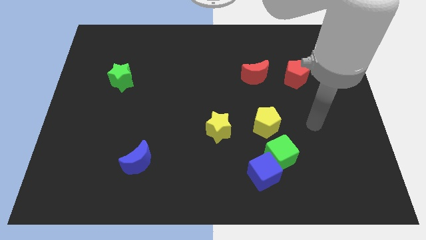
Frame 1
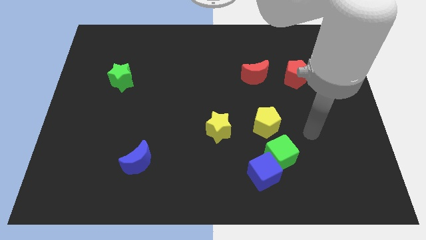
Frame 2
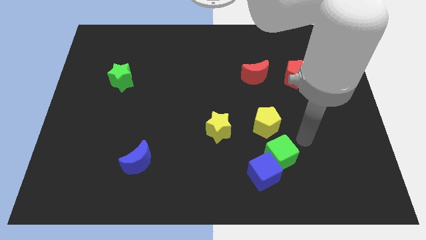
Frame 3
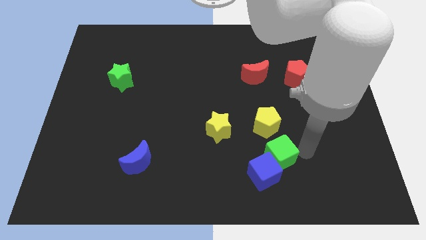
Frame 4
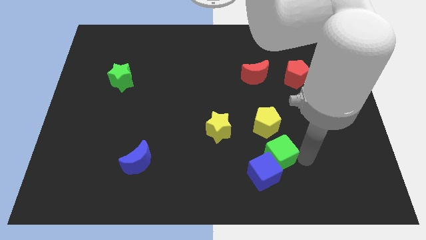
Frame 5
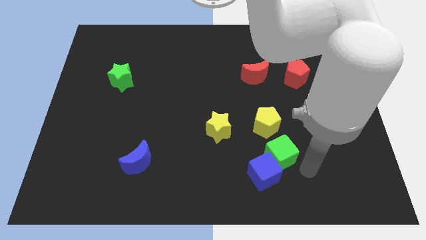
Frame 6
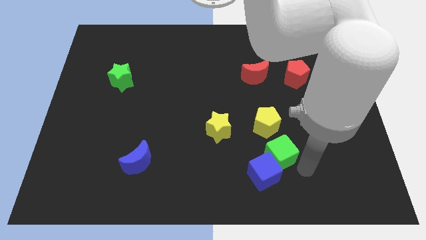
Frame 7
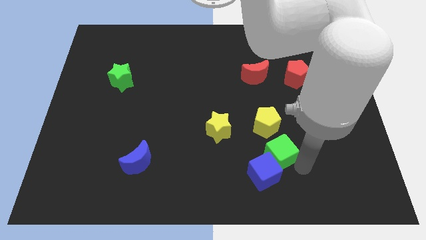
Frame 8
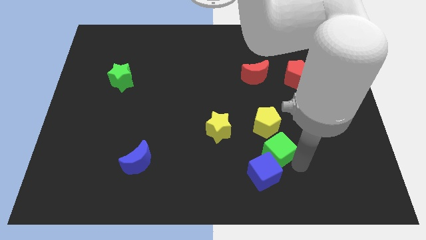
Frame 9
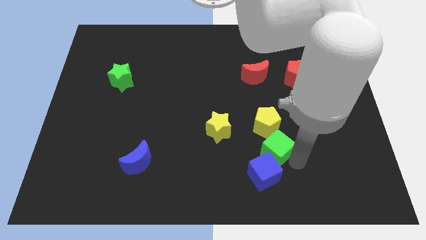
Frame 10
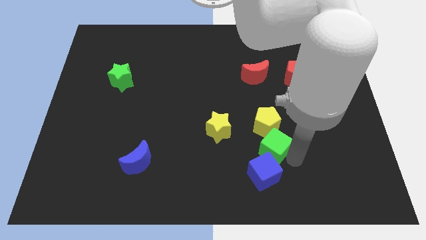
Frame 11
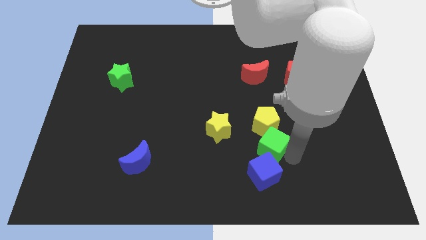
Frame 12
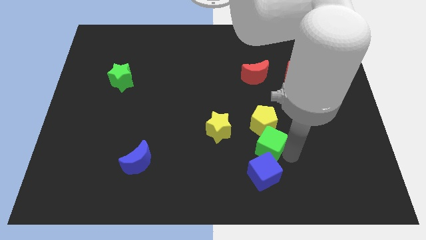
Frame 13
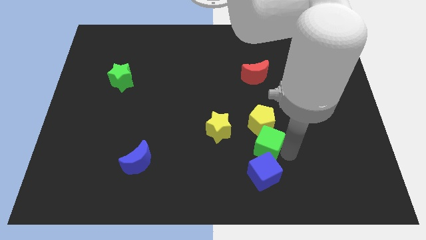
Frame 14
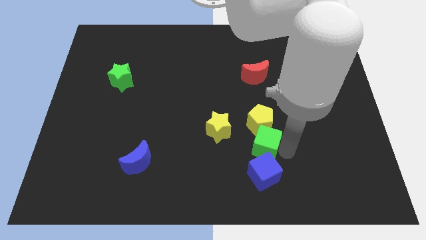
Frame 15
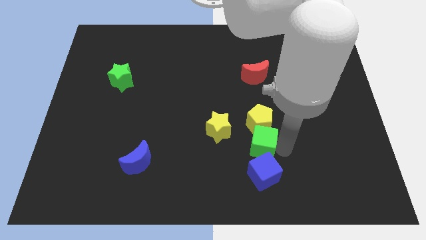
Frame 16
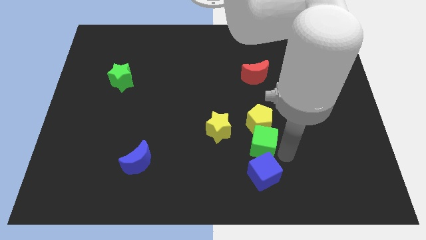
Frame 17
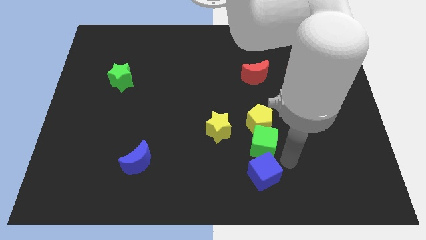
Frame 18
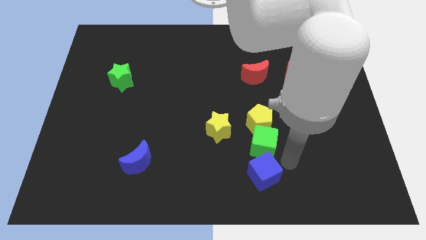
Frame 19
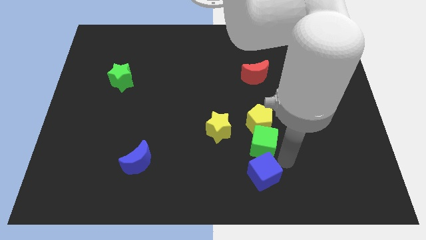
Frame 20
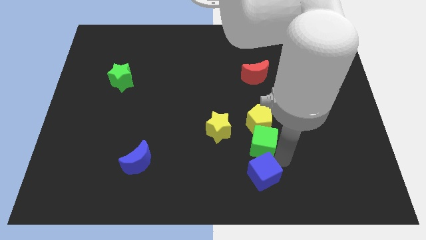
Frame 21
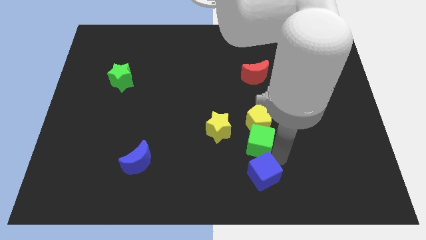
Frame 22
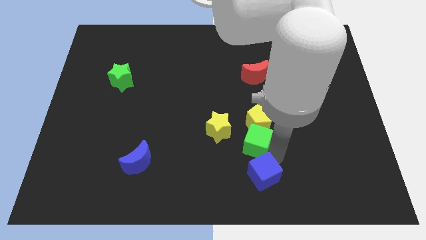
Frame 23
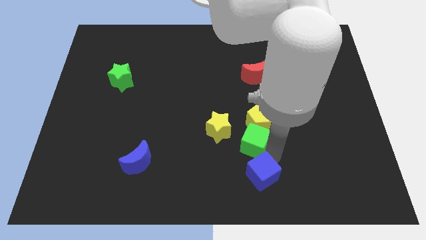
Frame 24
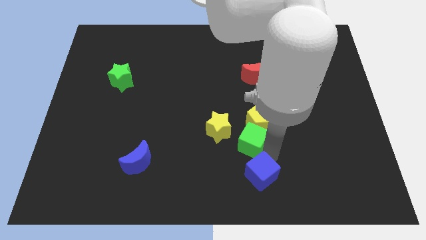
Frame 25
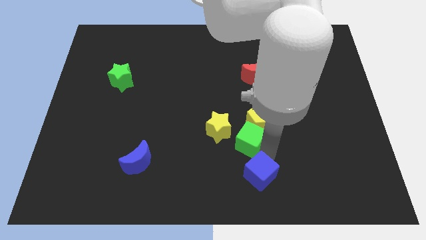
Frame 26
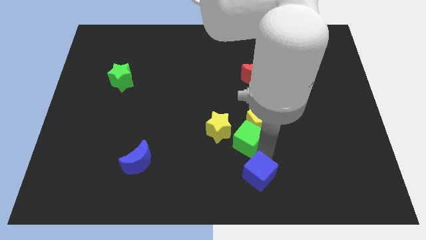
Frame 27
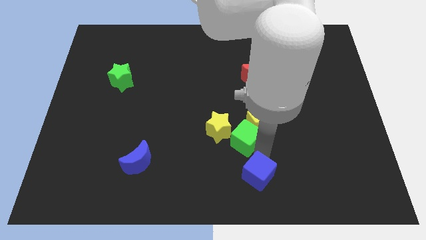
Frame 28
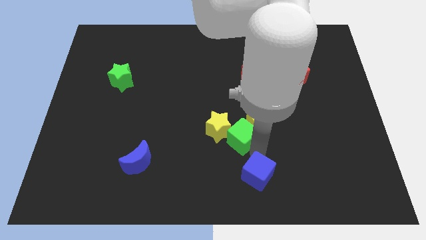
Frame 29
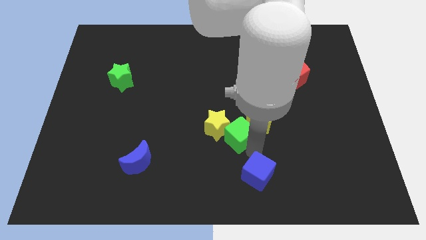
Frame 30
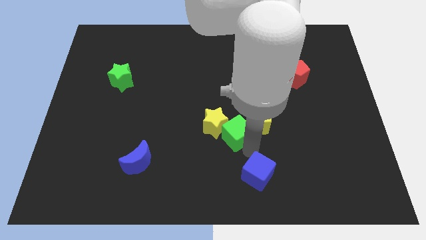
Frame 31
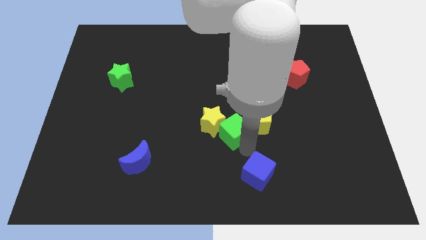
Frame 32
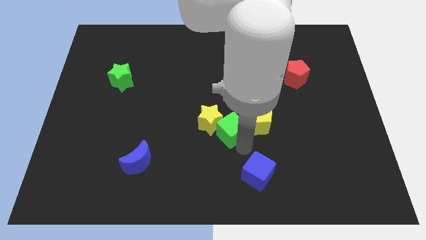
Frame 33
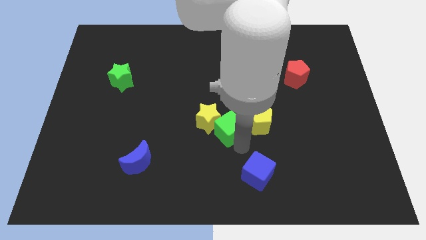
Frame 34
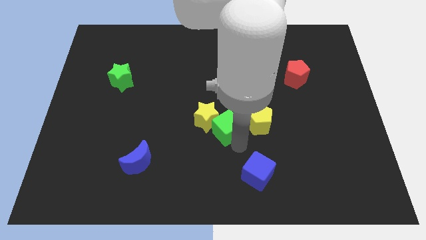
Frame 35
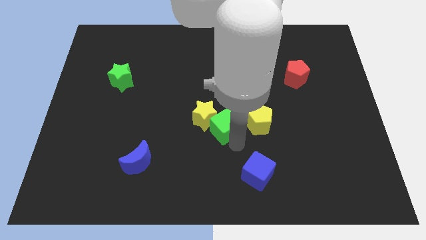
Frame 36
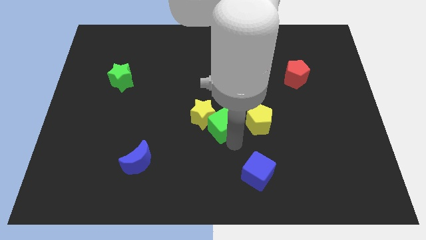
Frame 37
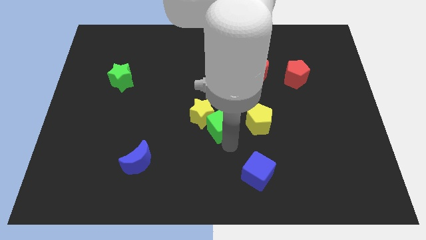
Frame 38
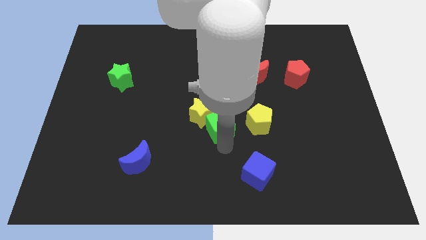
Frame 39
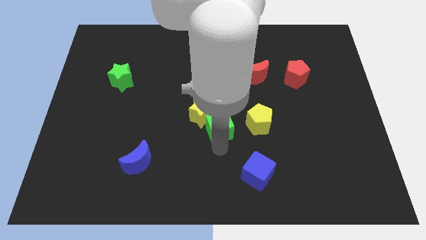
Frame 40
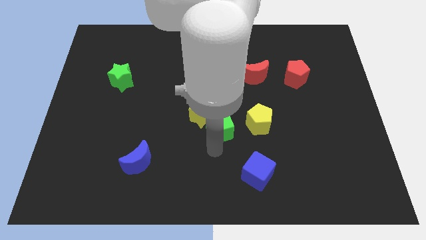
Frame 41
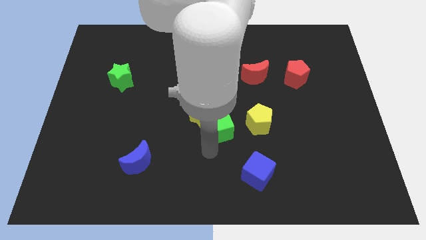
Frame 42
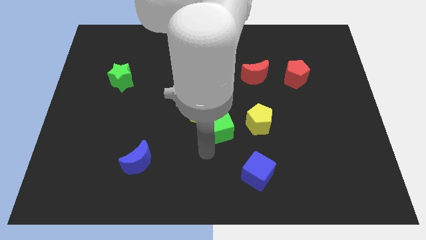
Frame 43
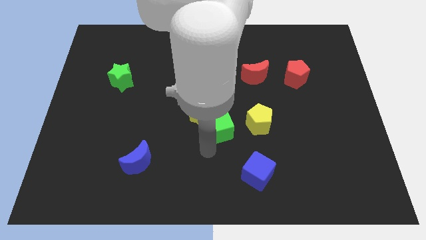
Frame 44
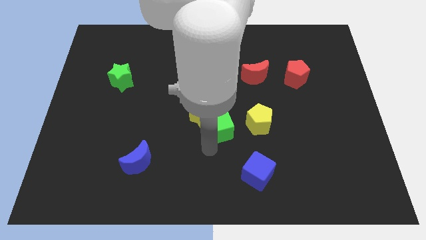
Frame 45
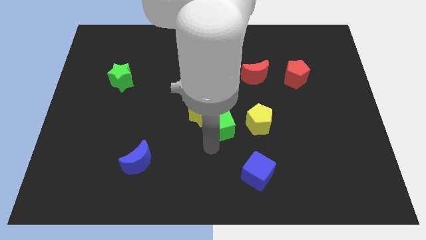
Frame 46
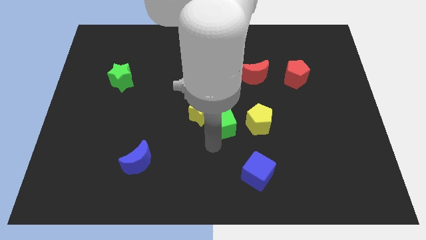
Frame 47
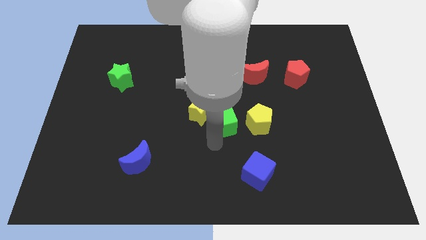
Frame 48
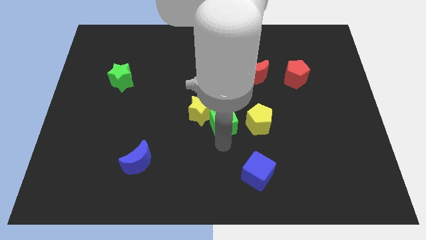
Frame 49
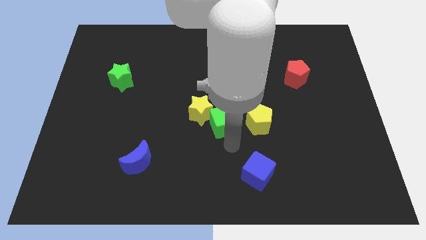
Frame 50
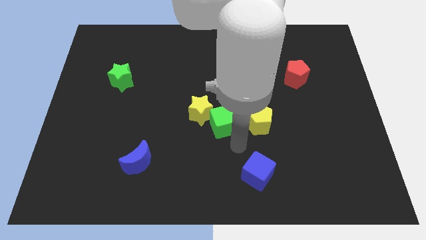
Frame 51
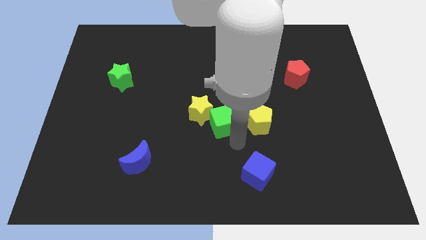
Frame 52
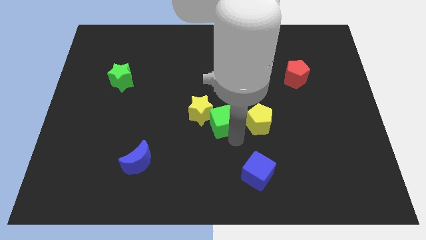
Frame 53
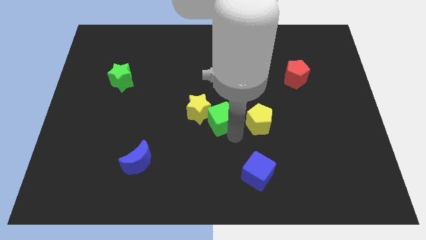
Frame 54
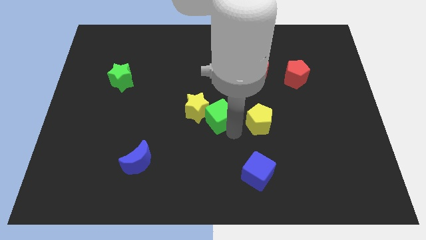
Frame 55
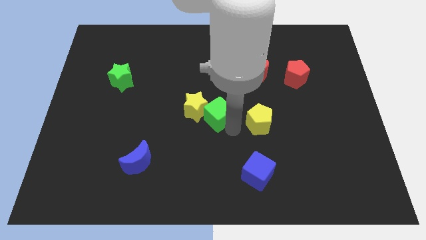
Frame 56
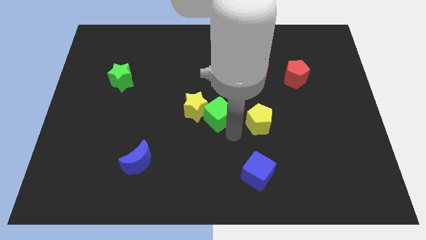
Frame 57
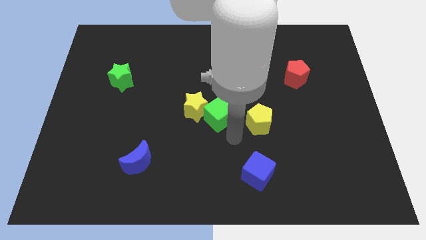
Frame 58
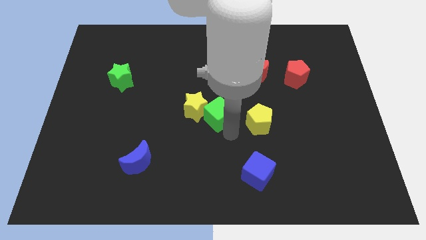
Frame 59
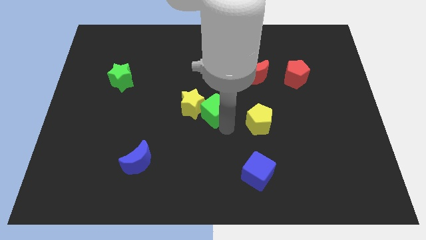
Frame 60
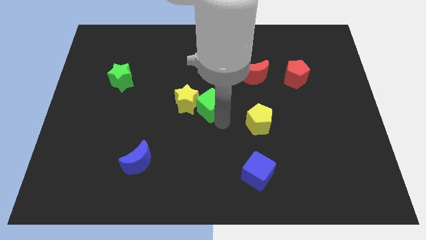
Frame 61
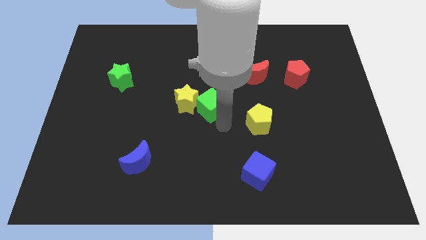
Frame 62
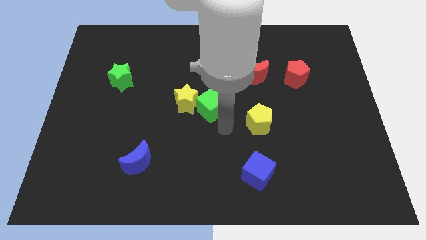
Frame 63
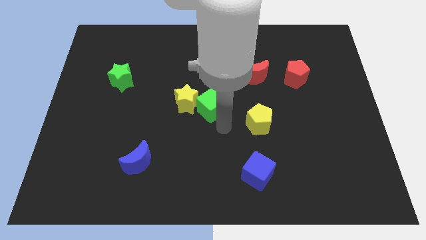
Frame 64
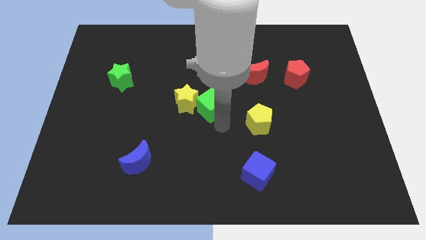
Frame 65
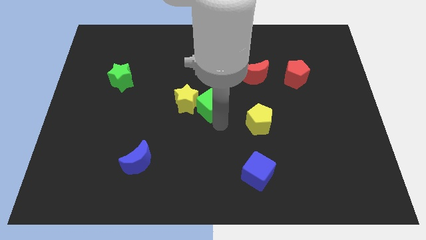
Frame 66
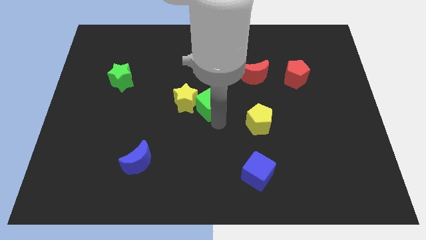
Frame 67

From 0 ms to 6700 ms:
push the green cube upwards and then left

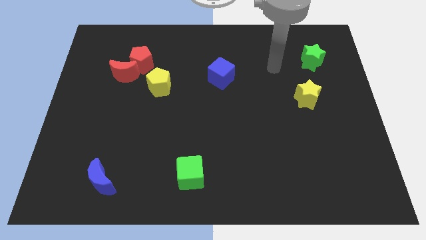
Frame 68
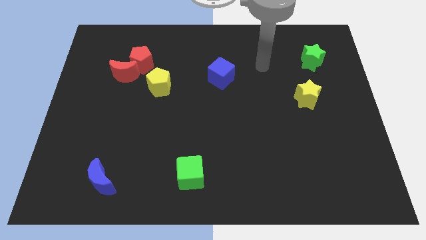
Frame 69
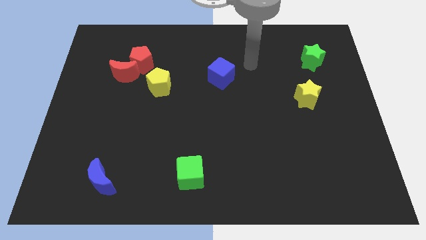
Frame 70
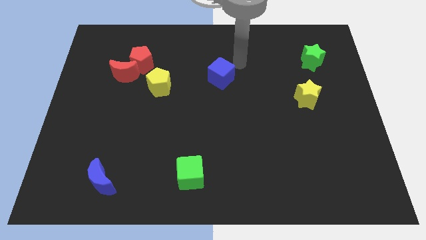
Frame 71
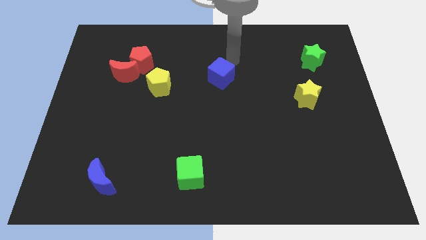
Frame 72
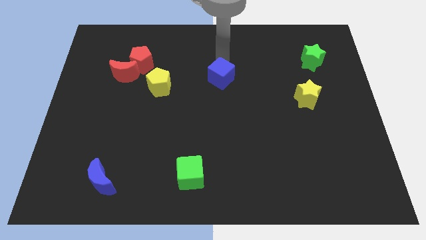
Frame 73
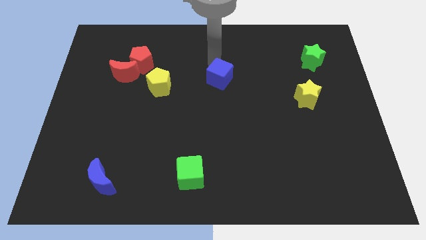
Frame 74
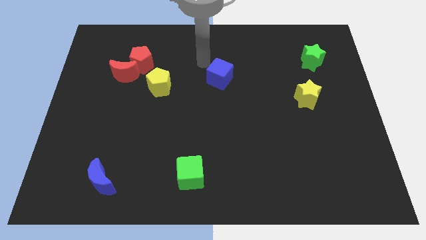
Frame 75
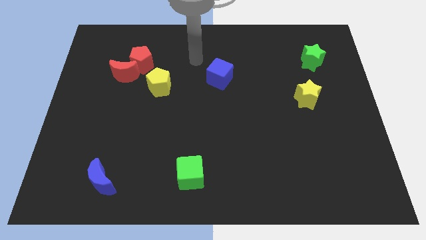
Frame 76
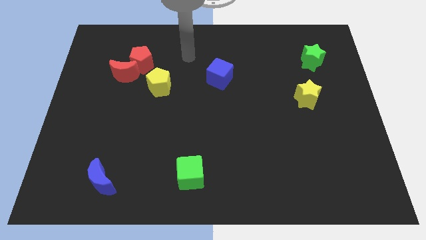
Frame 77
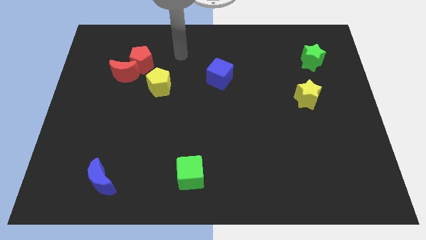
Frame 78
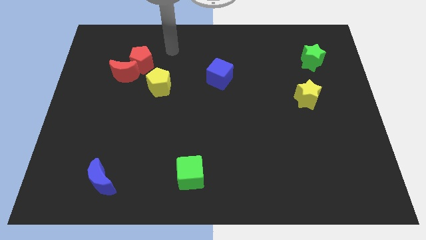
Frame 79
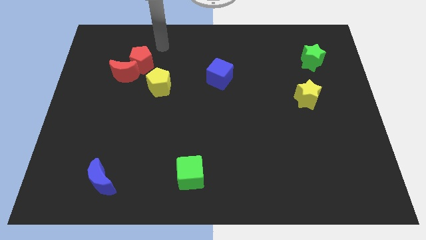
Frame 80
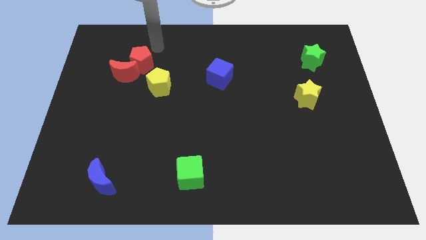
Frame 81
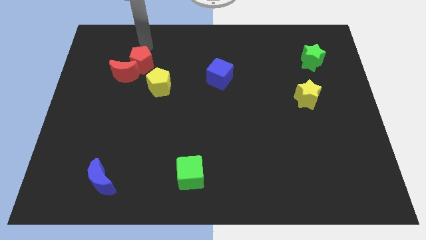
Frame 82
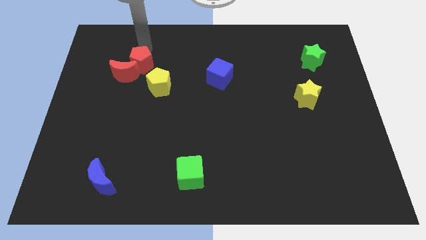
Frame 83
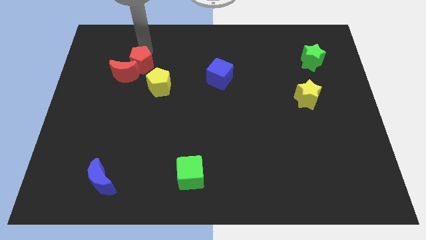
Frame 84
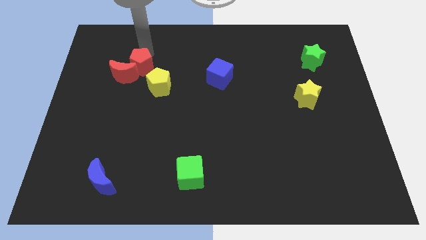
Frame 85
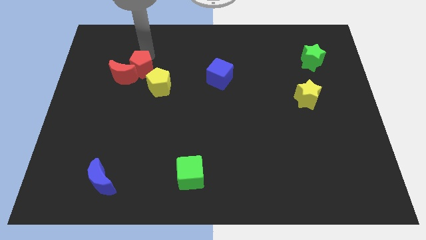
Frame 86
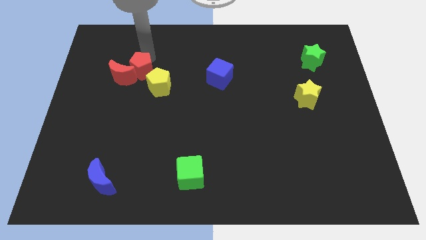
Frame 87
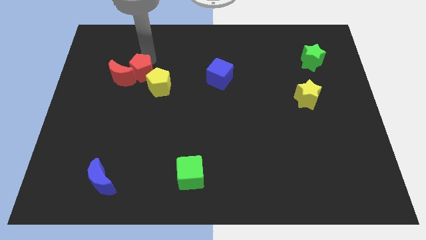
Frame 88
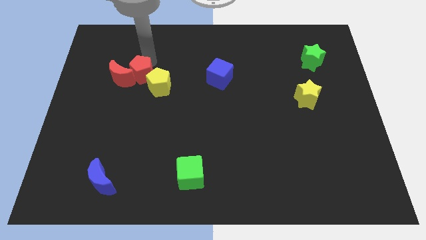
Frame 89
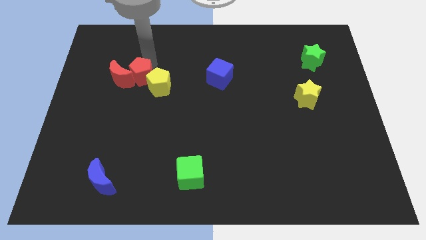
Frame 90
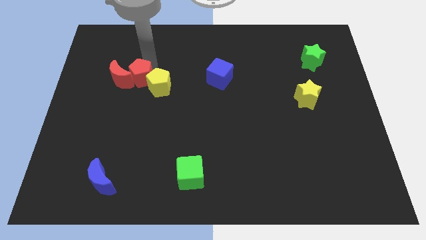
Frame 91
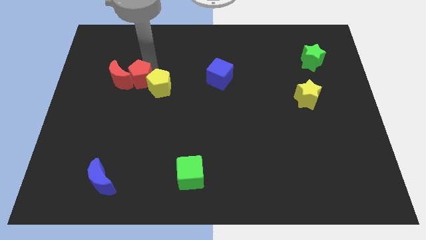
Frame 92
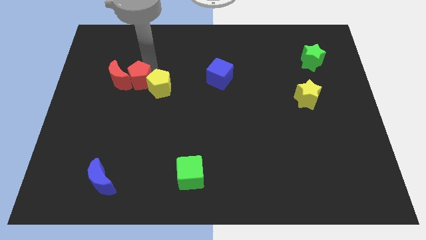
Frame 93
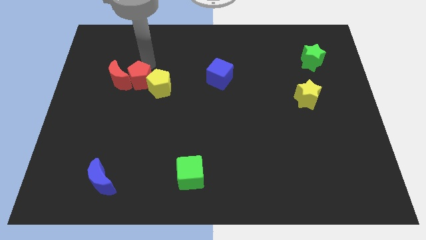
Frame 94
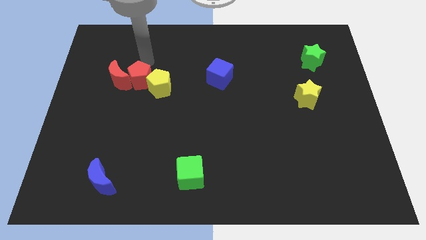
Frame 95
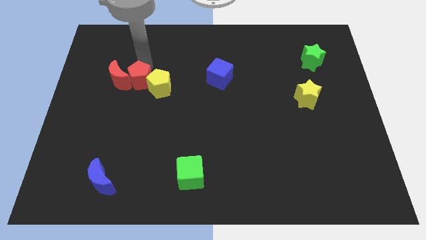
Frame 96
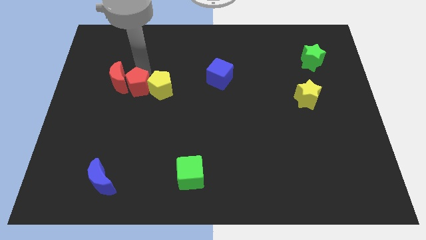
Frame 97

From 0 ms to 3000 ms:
move the red pentagon a little bit down
